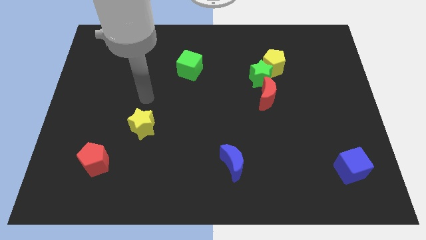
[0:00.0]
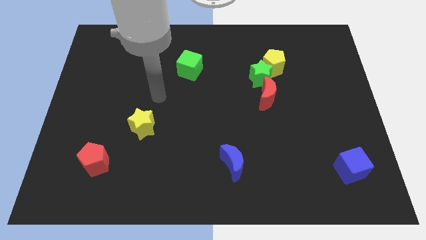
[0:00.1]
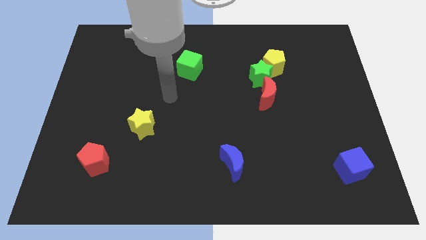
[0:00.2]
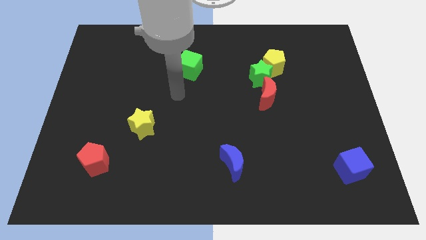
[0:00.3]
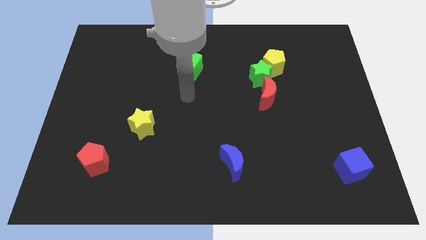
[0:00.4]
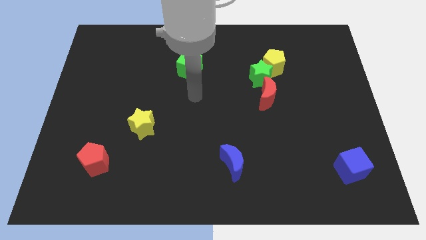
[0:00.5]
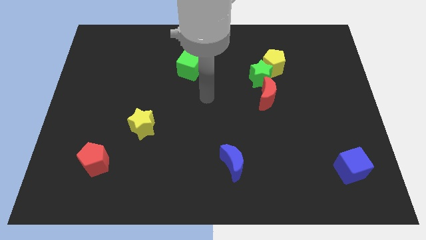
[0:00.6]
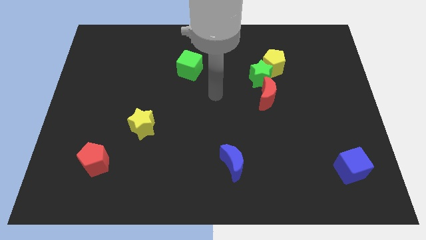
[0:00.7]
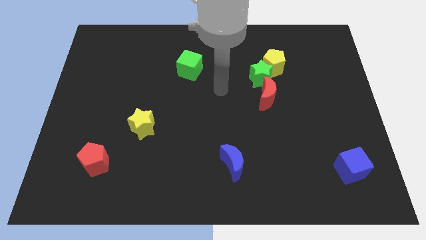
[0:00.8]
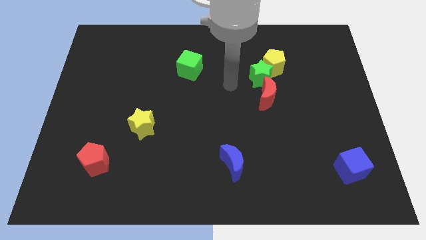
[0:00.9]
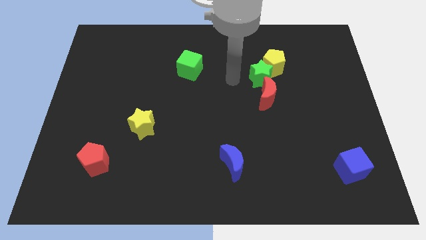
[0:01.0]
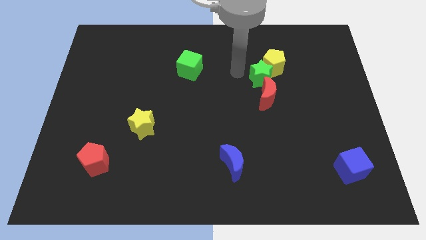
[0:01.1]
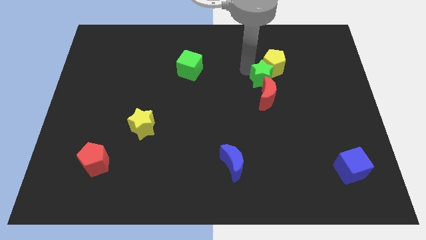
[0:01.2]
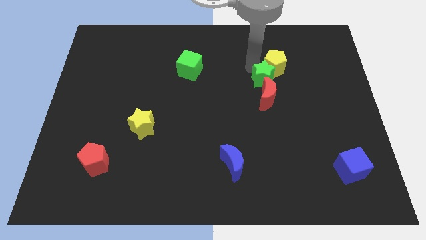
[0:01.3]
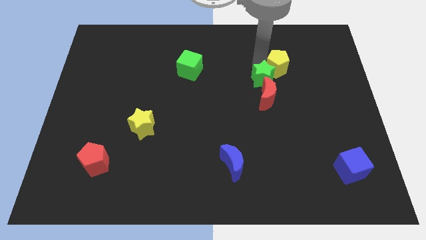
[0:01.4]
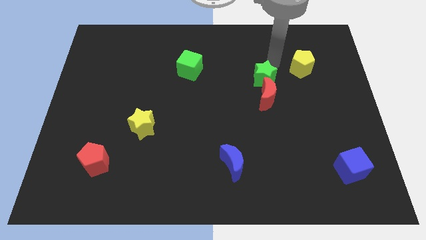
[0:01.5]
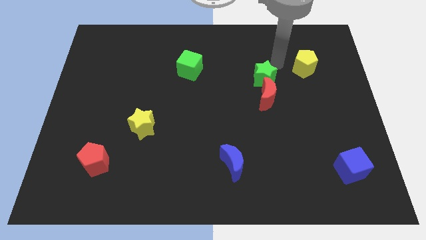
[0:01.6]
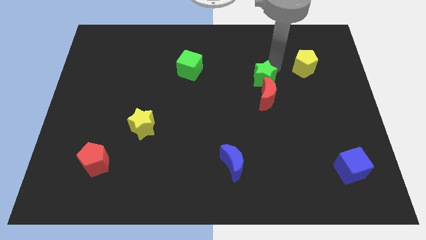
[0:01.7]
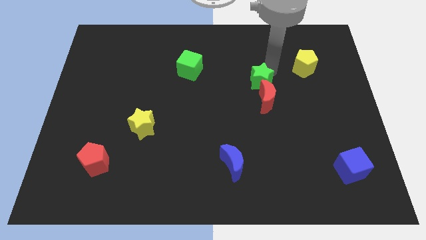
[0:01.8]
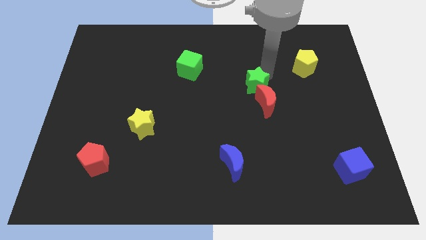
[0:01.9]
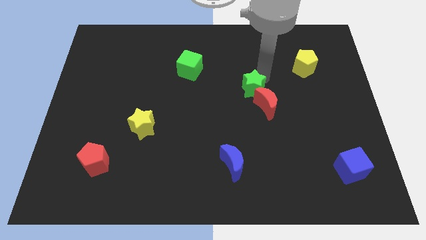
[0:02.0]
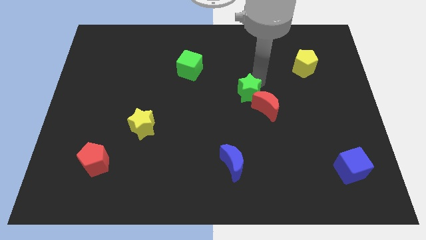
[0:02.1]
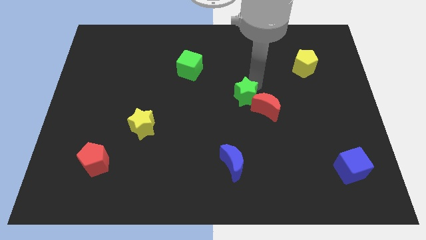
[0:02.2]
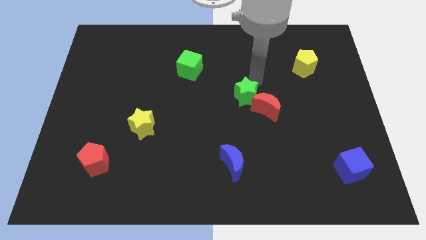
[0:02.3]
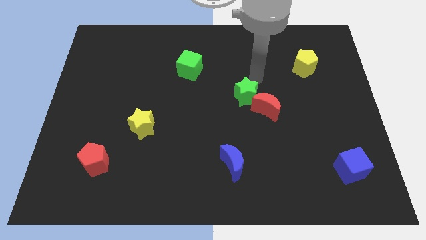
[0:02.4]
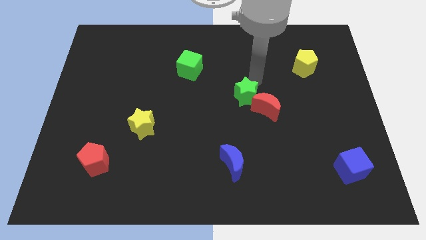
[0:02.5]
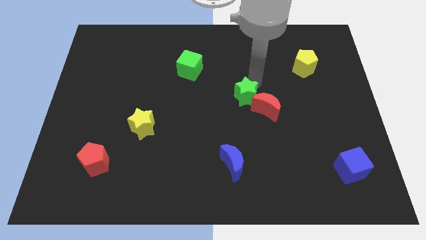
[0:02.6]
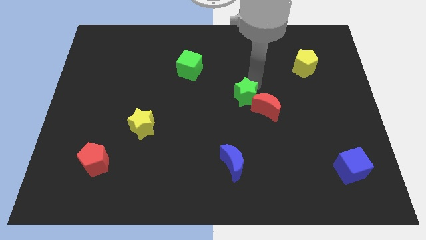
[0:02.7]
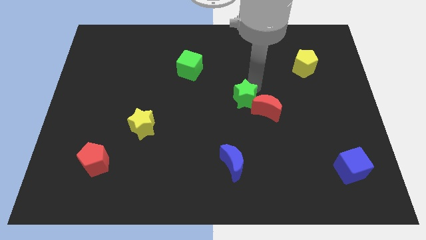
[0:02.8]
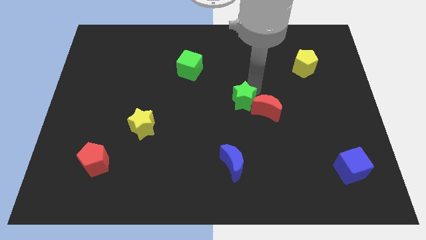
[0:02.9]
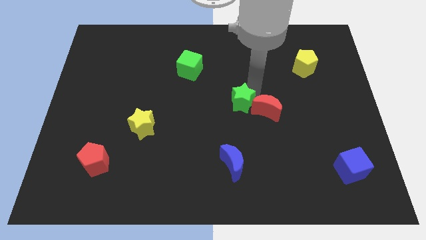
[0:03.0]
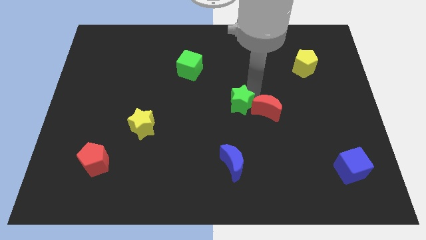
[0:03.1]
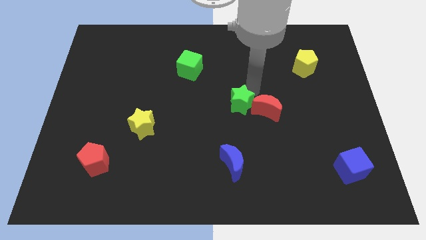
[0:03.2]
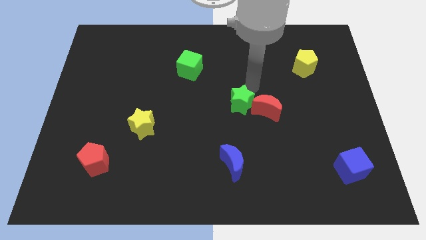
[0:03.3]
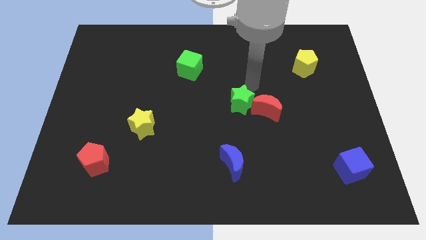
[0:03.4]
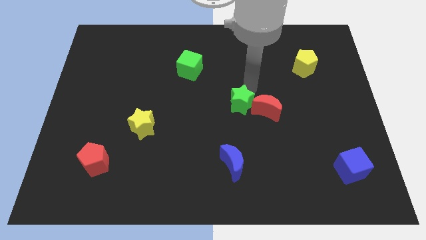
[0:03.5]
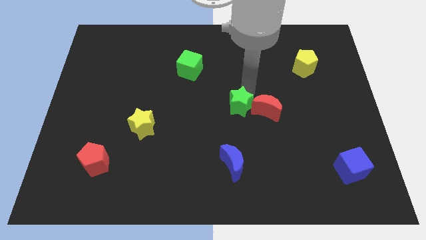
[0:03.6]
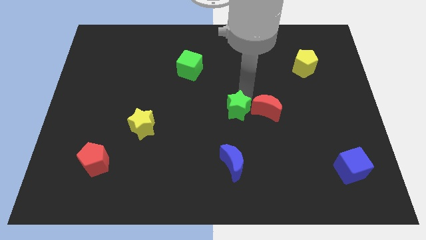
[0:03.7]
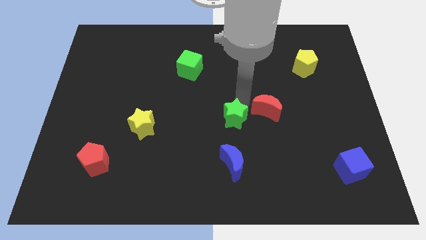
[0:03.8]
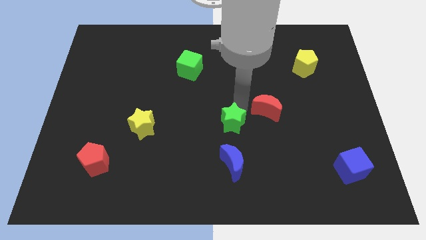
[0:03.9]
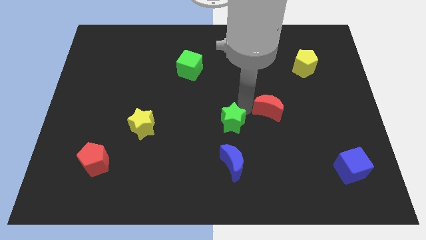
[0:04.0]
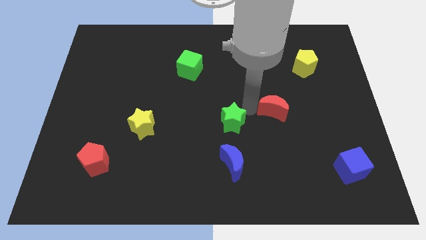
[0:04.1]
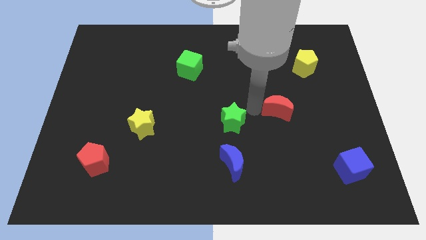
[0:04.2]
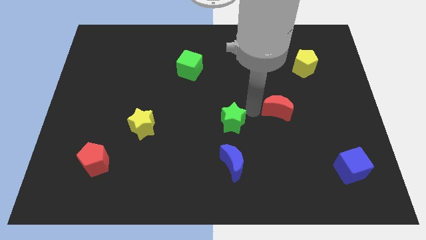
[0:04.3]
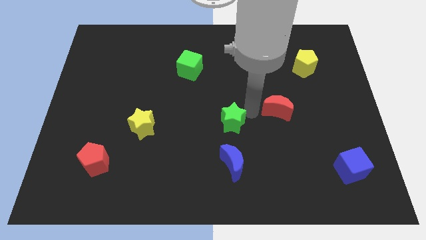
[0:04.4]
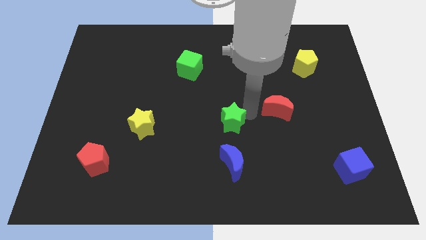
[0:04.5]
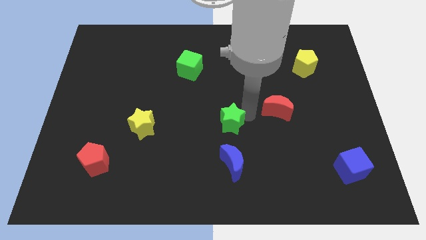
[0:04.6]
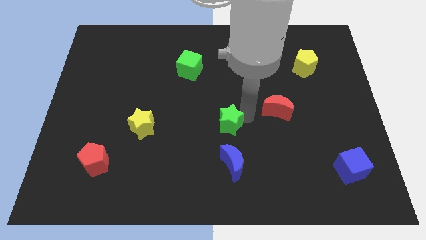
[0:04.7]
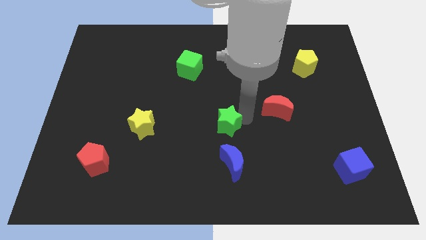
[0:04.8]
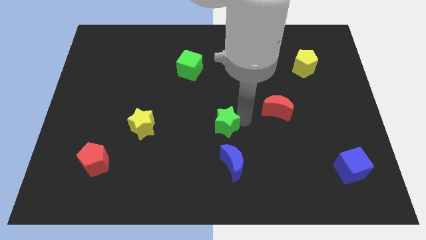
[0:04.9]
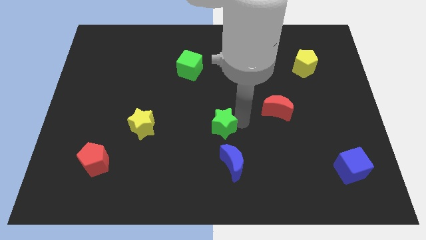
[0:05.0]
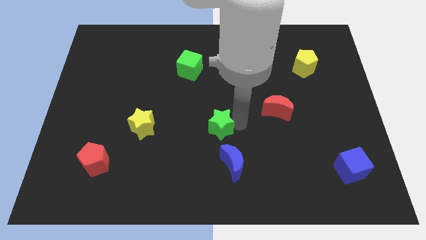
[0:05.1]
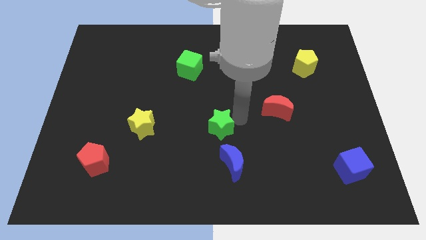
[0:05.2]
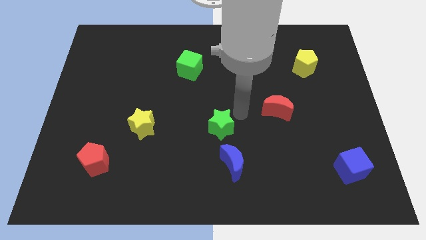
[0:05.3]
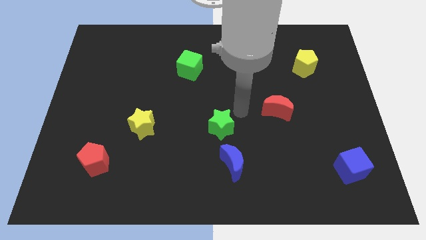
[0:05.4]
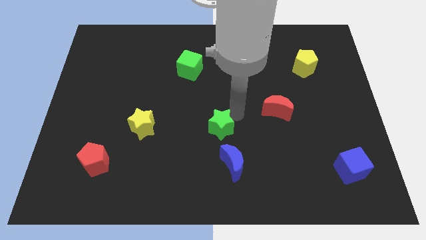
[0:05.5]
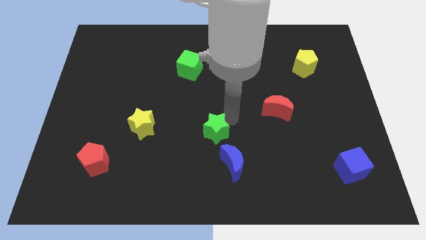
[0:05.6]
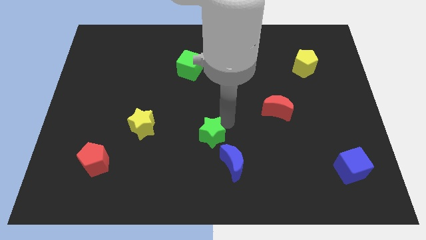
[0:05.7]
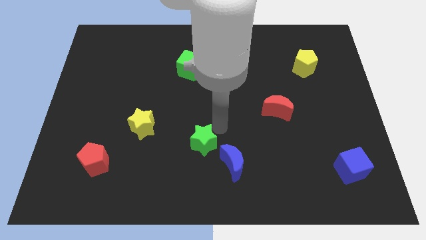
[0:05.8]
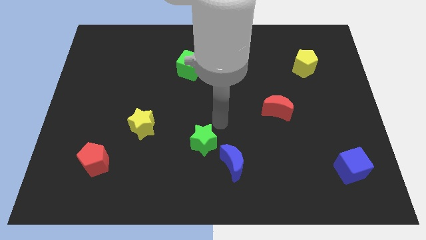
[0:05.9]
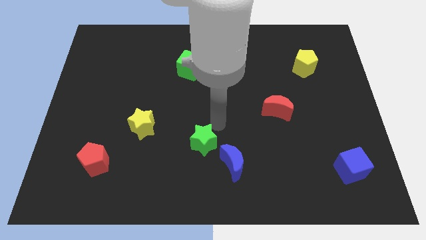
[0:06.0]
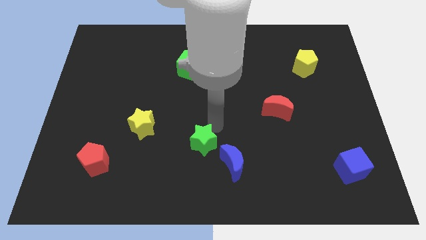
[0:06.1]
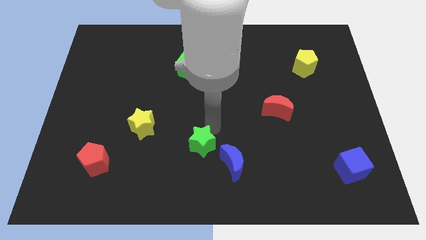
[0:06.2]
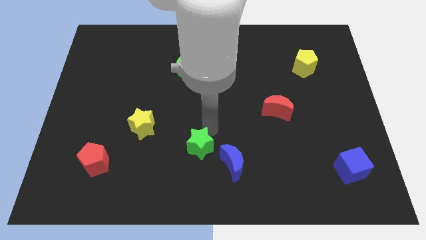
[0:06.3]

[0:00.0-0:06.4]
slide the green star left of the blue moon

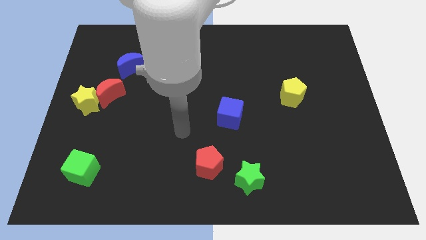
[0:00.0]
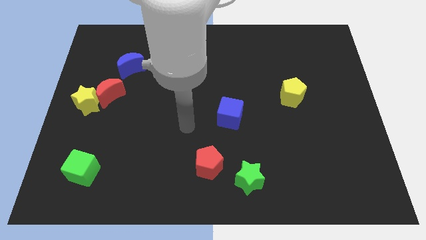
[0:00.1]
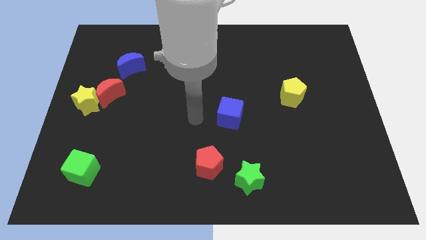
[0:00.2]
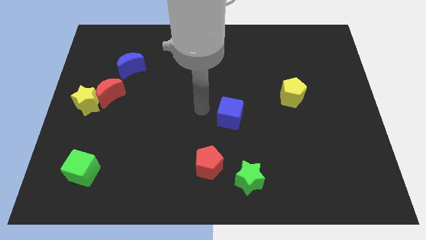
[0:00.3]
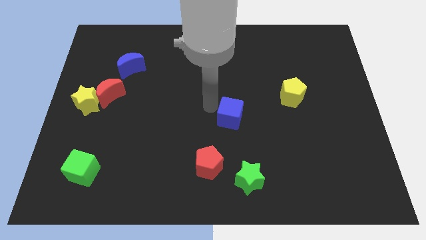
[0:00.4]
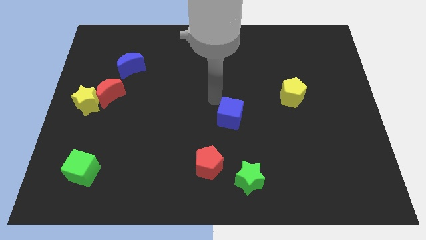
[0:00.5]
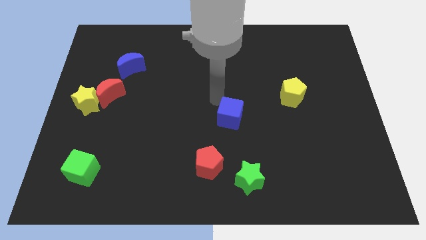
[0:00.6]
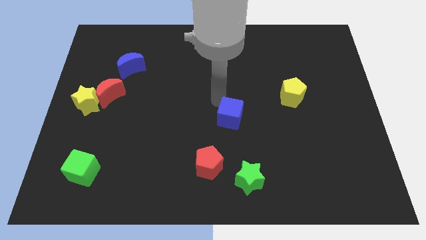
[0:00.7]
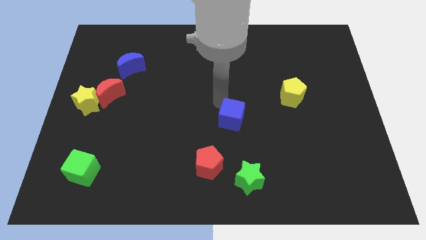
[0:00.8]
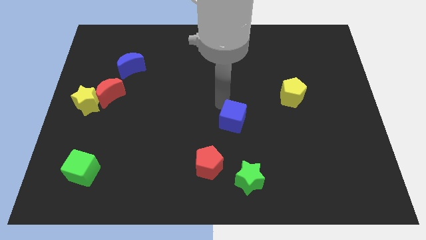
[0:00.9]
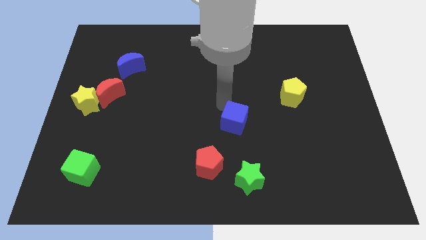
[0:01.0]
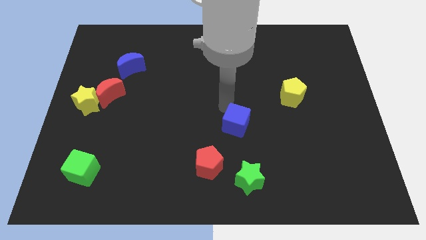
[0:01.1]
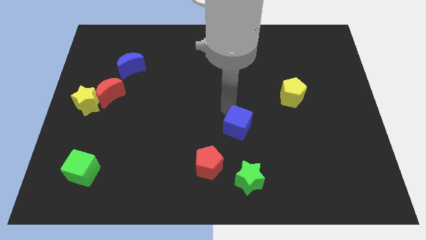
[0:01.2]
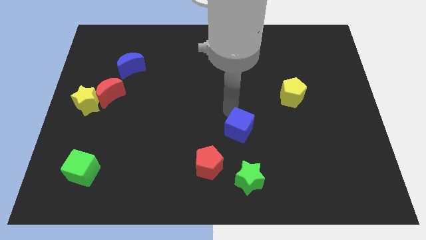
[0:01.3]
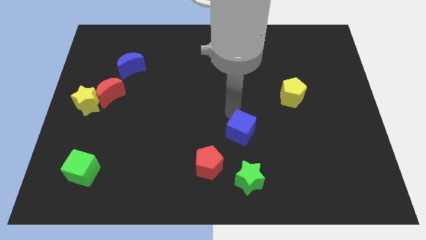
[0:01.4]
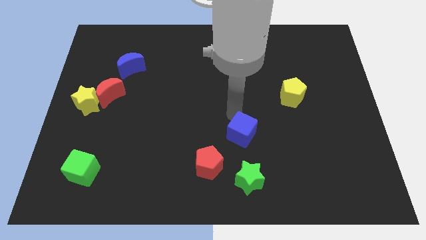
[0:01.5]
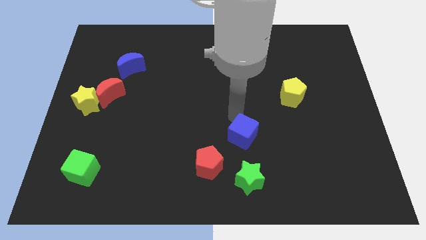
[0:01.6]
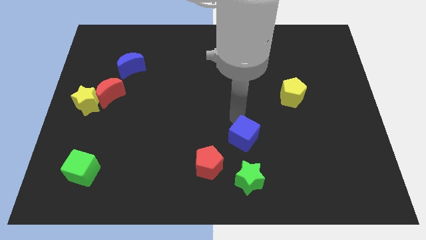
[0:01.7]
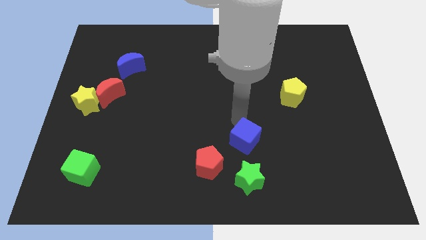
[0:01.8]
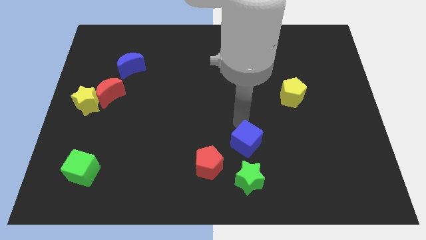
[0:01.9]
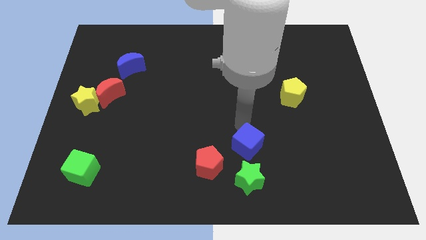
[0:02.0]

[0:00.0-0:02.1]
put the blue cube to the right side of the red pentagon
